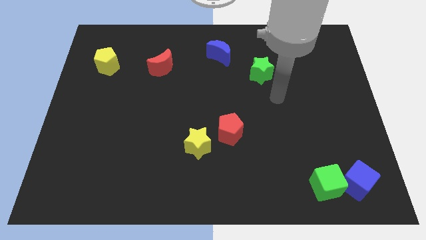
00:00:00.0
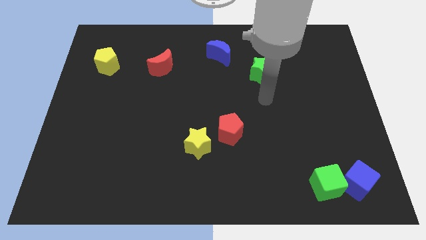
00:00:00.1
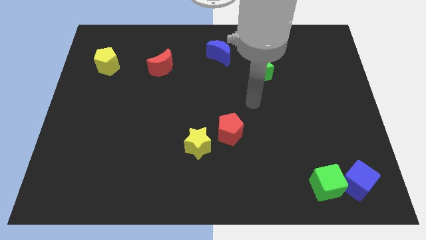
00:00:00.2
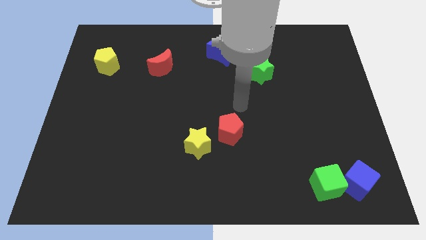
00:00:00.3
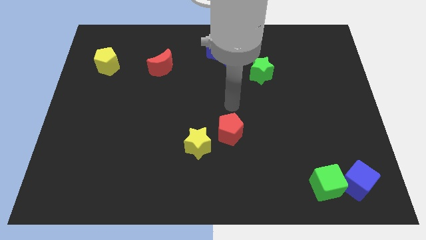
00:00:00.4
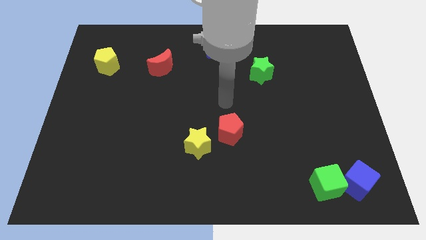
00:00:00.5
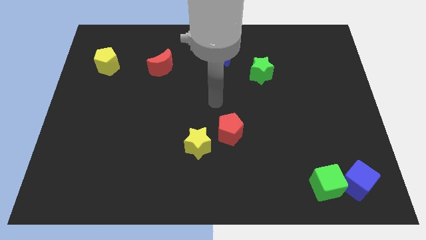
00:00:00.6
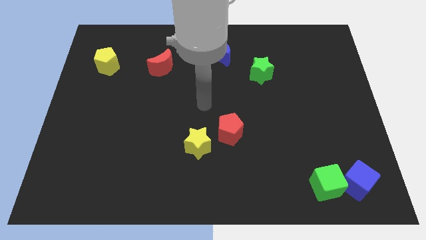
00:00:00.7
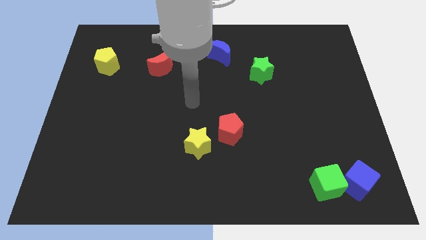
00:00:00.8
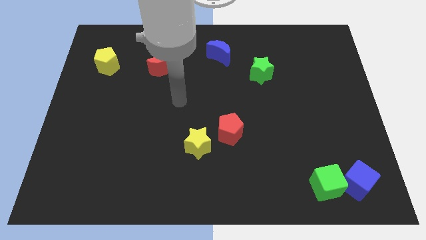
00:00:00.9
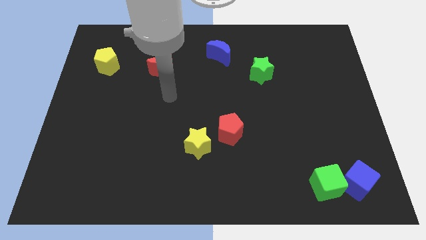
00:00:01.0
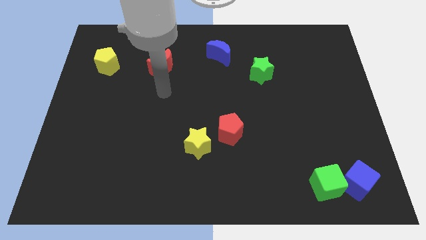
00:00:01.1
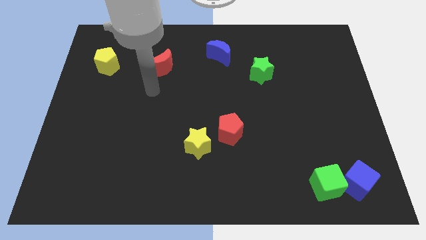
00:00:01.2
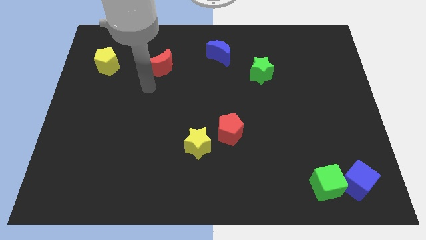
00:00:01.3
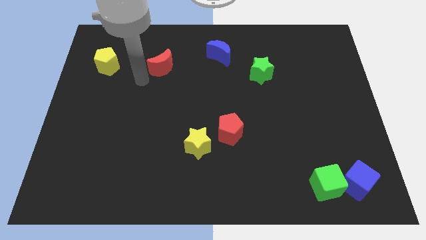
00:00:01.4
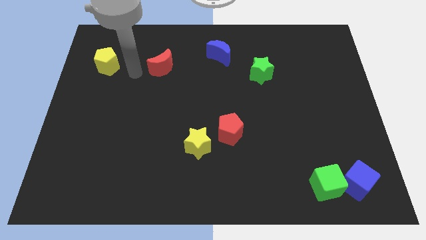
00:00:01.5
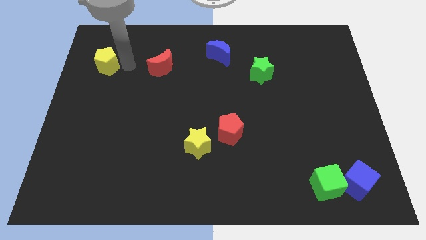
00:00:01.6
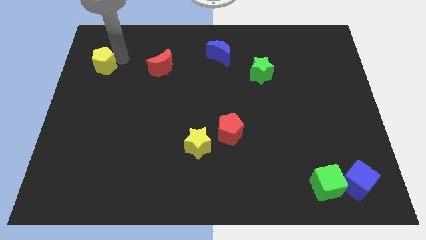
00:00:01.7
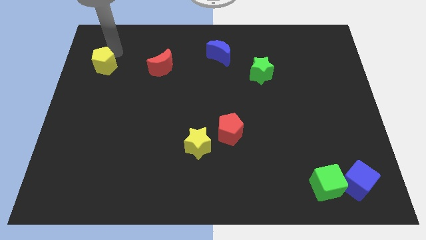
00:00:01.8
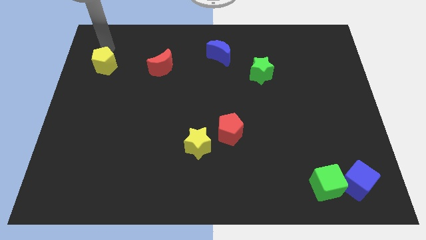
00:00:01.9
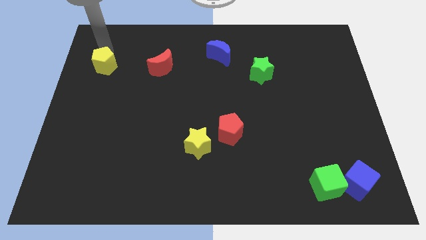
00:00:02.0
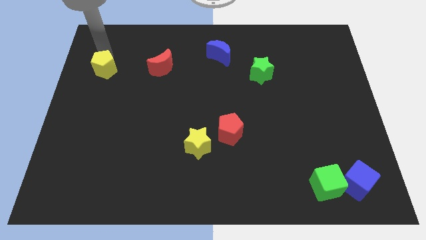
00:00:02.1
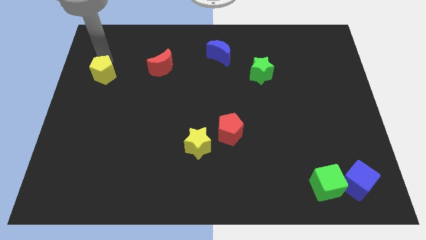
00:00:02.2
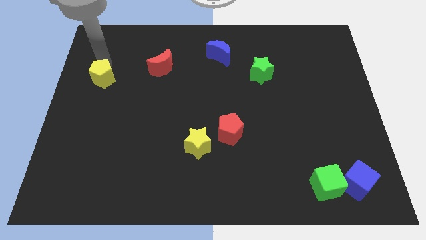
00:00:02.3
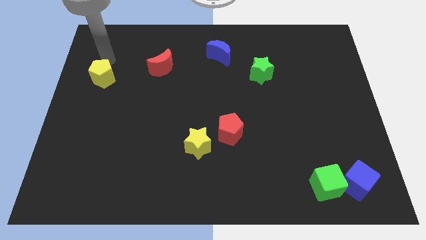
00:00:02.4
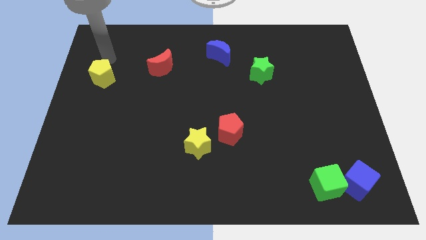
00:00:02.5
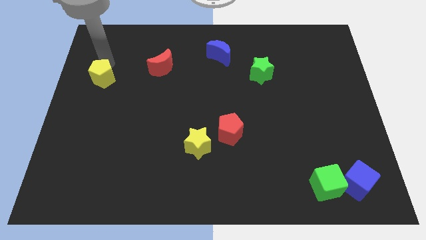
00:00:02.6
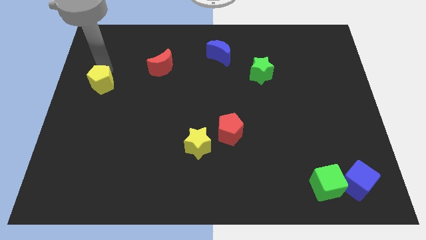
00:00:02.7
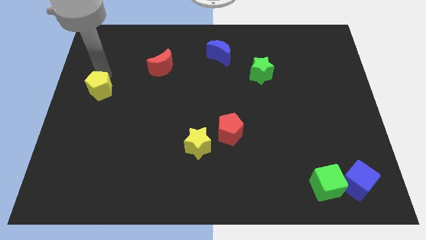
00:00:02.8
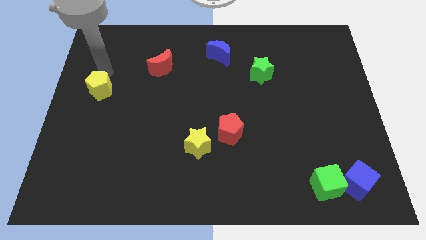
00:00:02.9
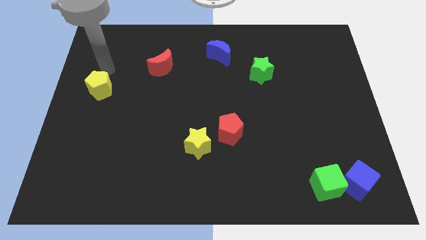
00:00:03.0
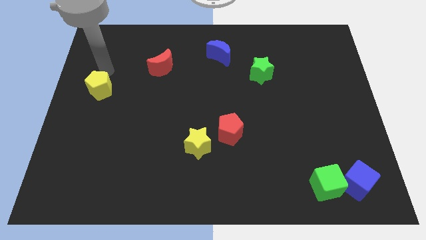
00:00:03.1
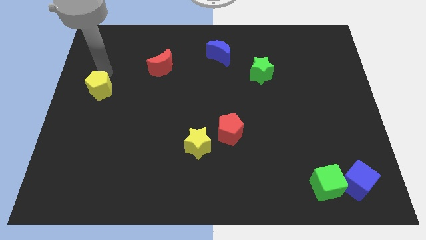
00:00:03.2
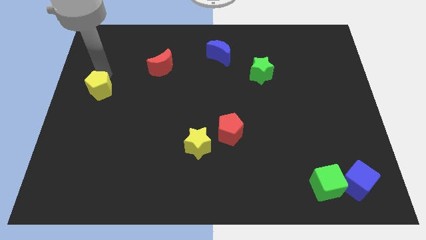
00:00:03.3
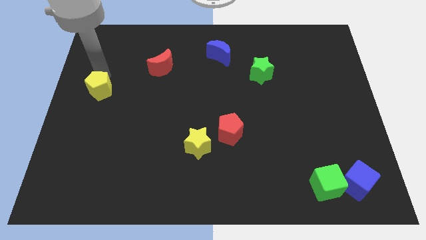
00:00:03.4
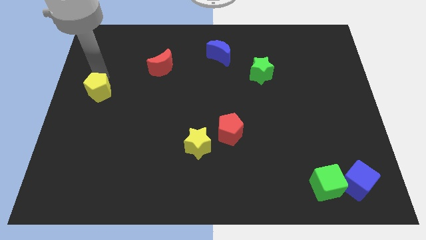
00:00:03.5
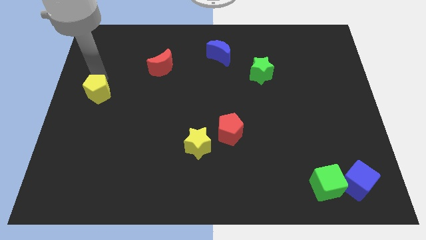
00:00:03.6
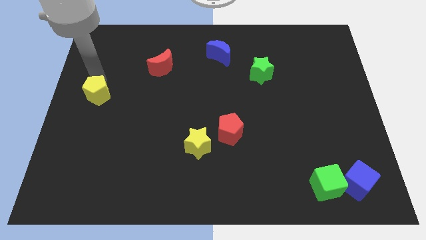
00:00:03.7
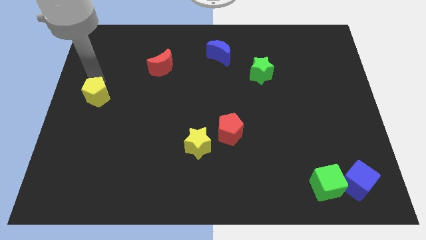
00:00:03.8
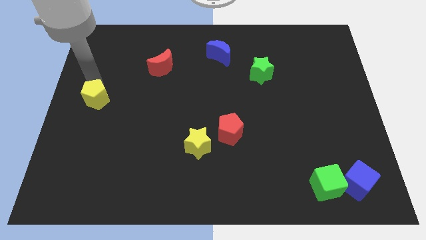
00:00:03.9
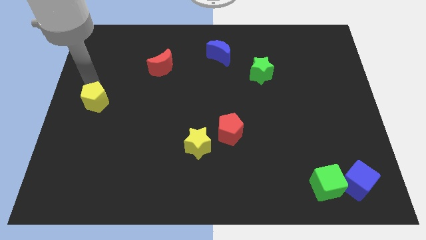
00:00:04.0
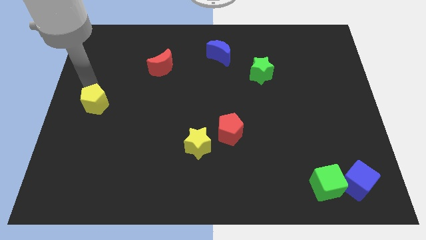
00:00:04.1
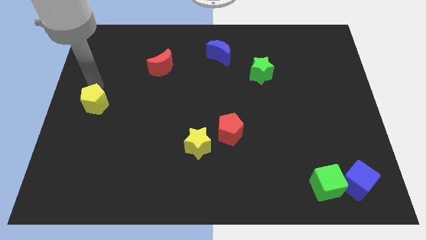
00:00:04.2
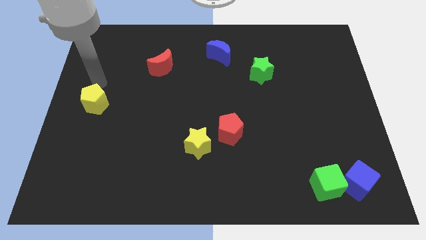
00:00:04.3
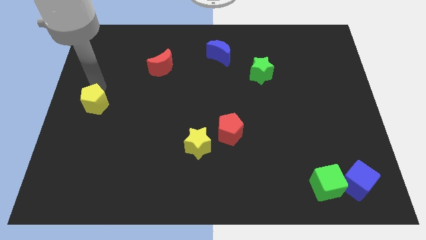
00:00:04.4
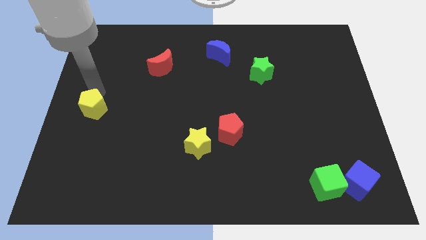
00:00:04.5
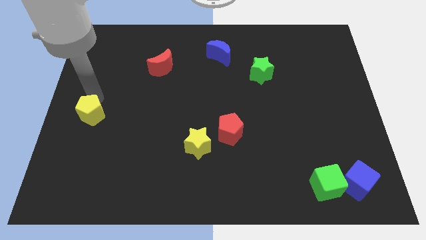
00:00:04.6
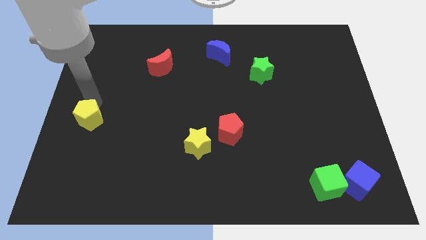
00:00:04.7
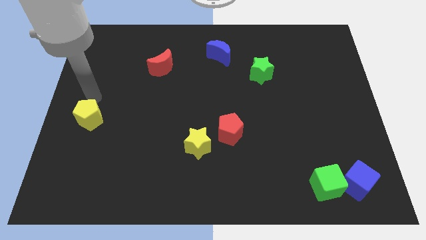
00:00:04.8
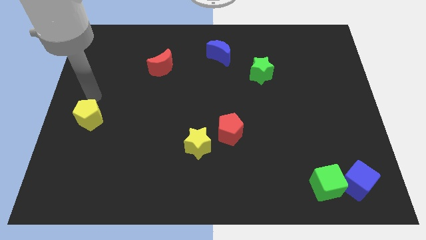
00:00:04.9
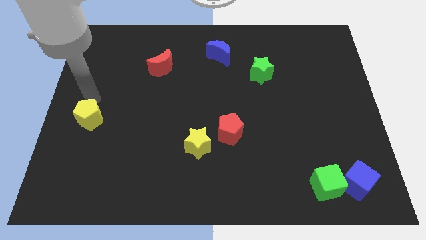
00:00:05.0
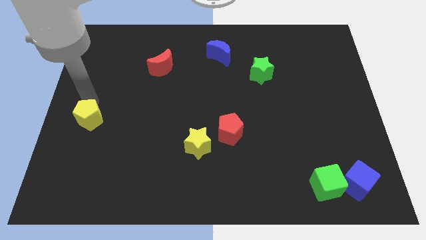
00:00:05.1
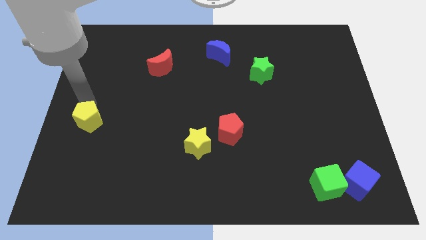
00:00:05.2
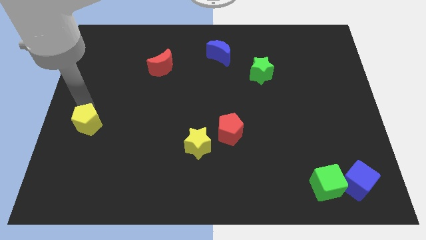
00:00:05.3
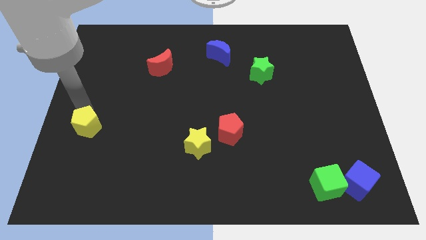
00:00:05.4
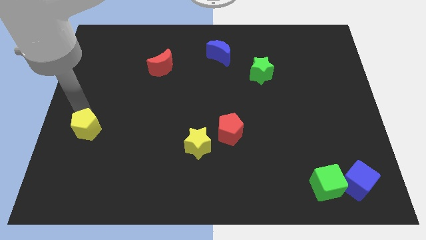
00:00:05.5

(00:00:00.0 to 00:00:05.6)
slide the yellow pentagon downwards

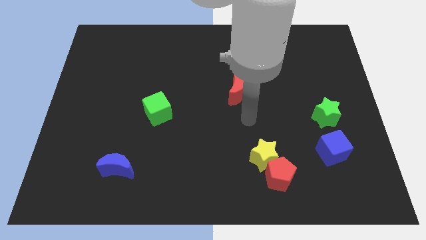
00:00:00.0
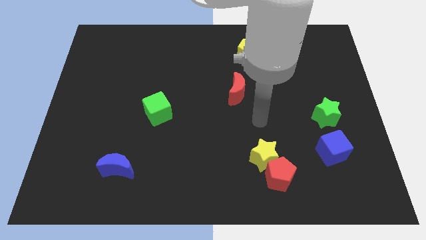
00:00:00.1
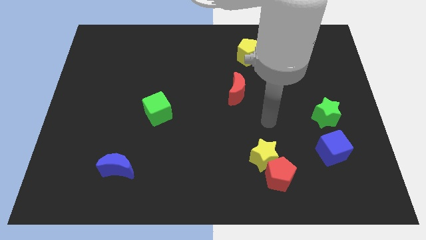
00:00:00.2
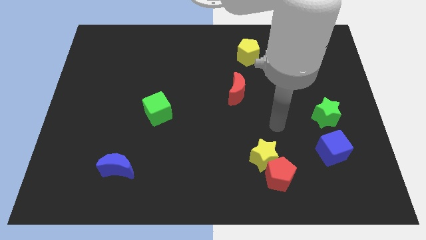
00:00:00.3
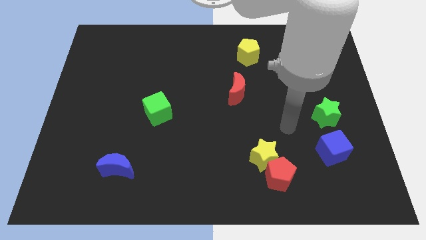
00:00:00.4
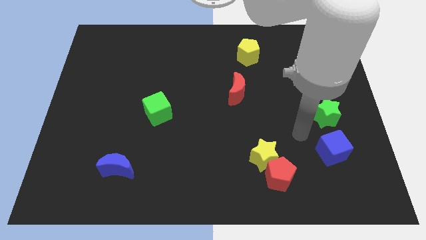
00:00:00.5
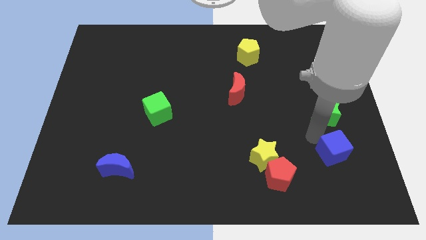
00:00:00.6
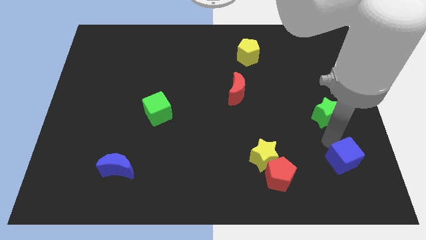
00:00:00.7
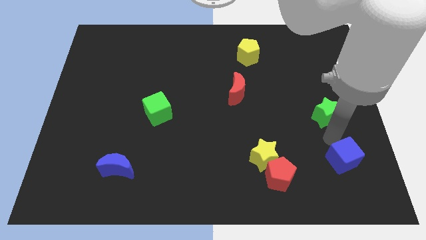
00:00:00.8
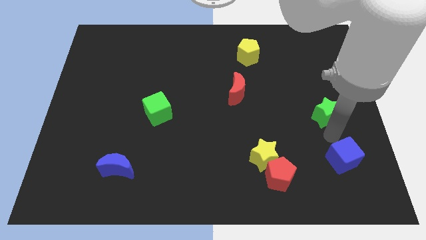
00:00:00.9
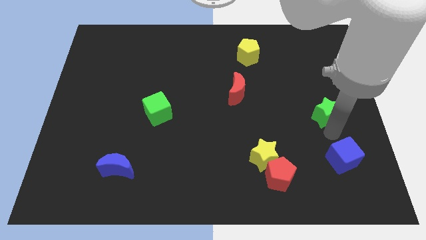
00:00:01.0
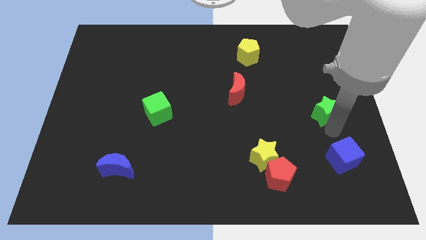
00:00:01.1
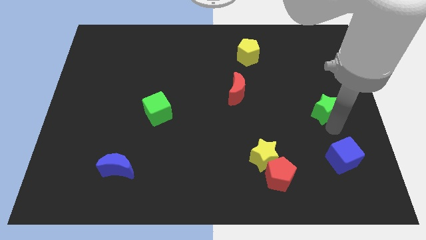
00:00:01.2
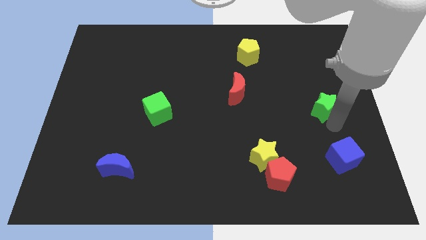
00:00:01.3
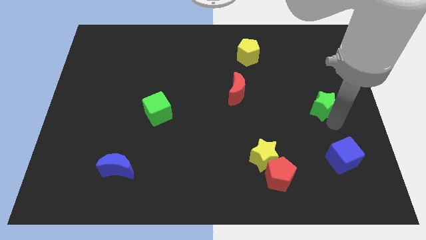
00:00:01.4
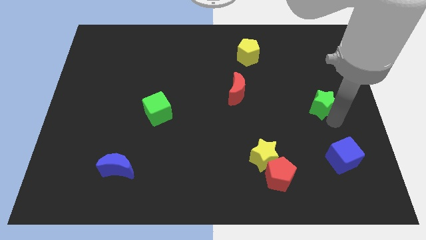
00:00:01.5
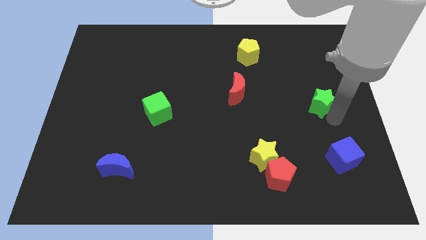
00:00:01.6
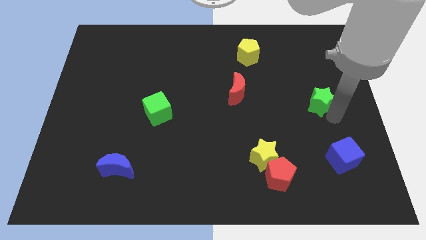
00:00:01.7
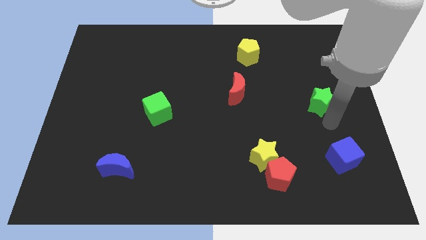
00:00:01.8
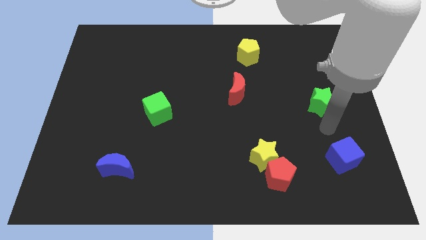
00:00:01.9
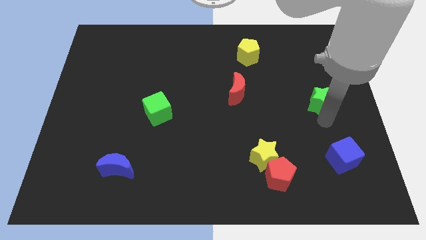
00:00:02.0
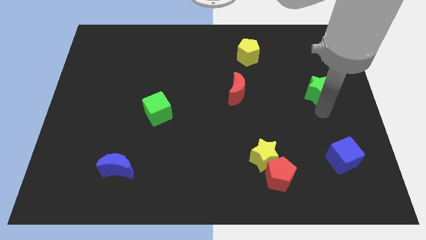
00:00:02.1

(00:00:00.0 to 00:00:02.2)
slide the green star slightly up
